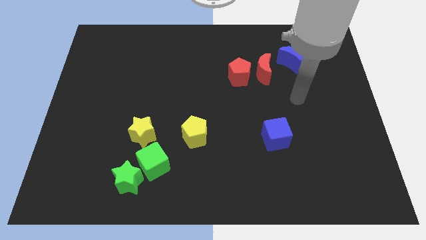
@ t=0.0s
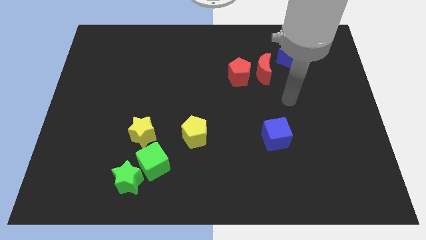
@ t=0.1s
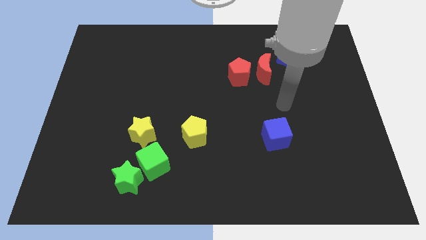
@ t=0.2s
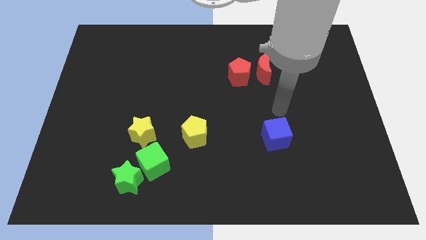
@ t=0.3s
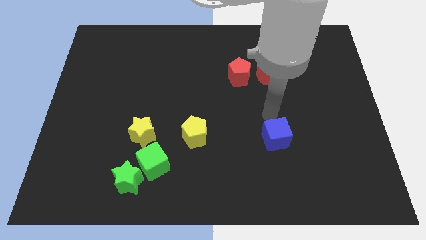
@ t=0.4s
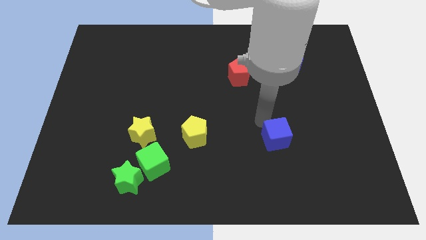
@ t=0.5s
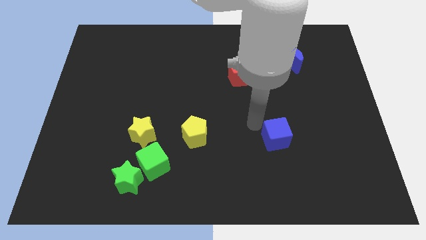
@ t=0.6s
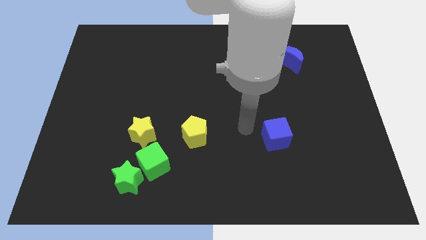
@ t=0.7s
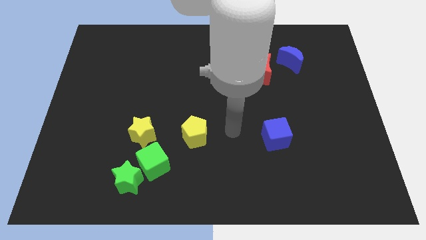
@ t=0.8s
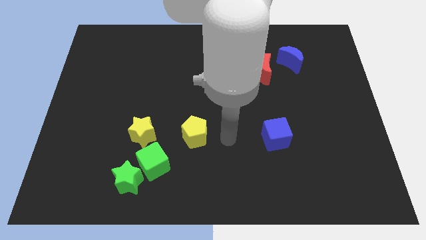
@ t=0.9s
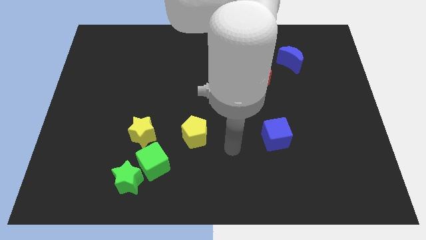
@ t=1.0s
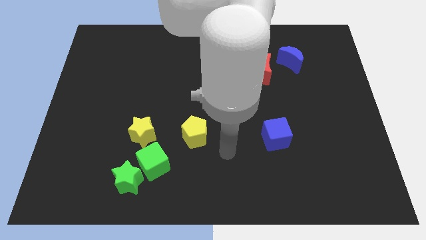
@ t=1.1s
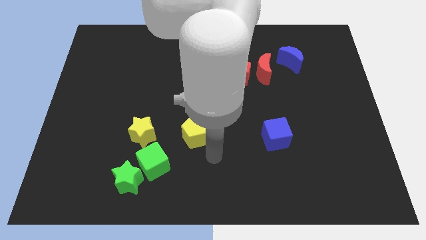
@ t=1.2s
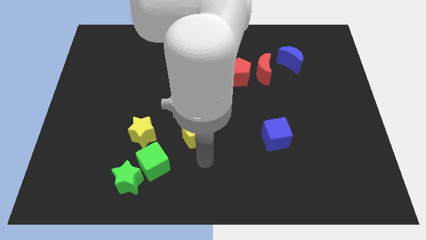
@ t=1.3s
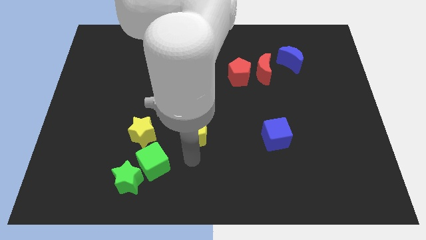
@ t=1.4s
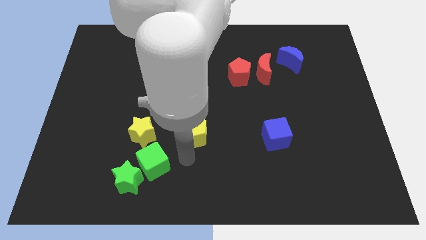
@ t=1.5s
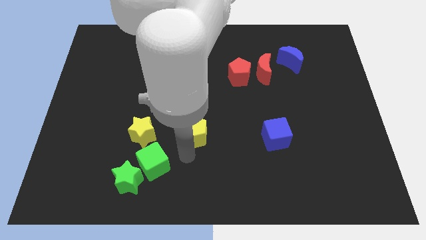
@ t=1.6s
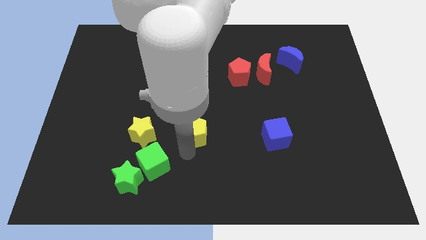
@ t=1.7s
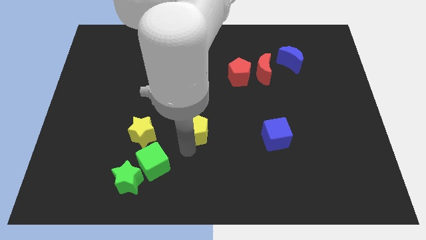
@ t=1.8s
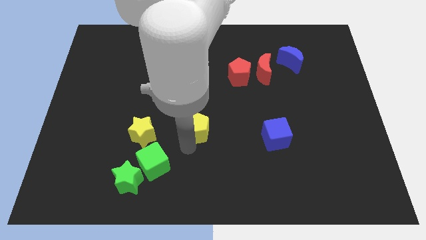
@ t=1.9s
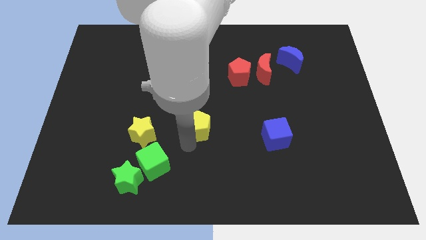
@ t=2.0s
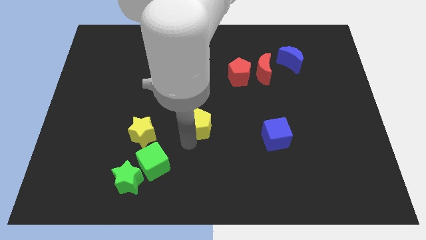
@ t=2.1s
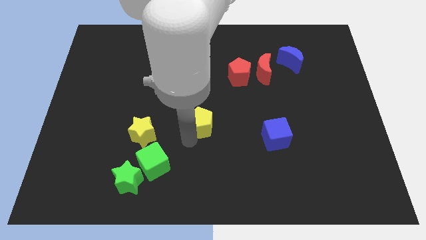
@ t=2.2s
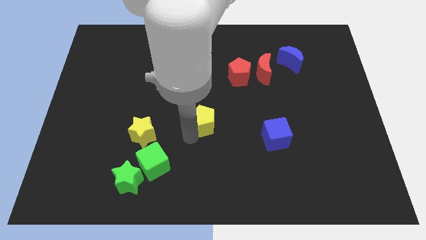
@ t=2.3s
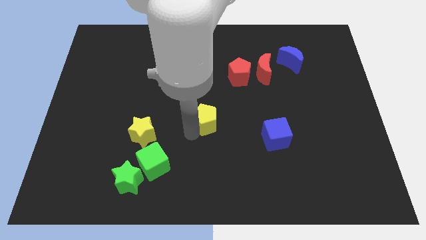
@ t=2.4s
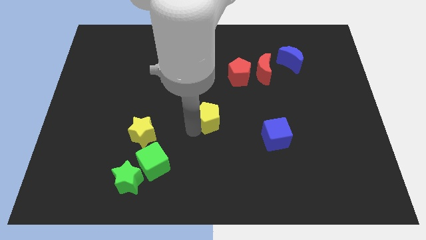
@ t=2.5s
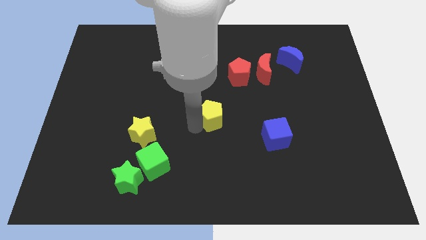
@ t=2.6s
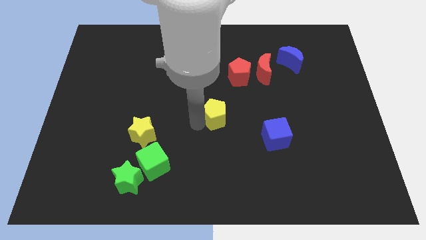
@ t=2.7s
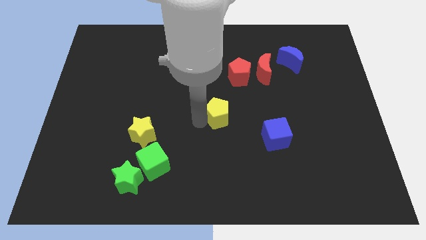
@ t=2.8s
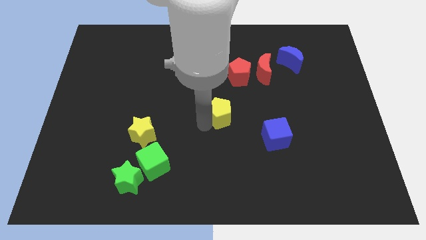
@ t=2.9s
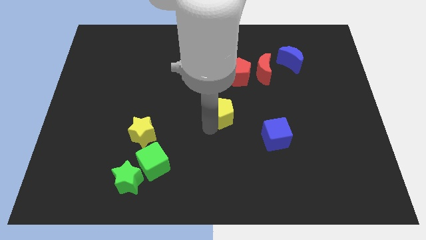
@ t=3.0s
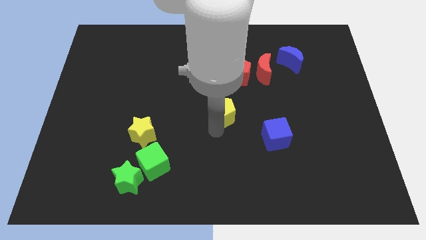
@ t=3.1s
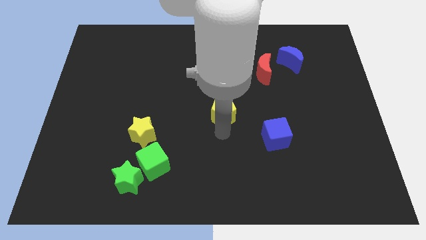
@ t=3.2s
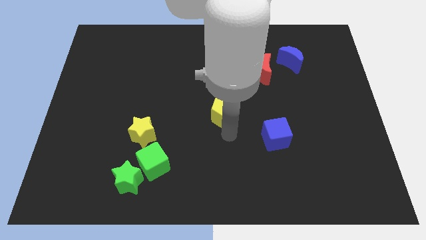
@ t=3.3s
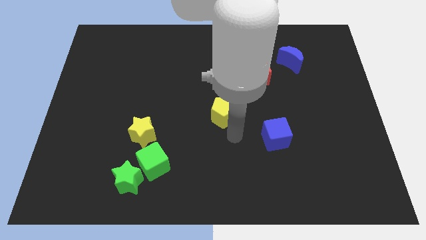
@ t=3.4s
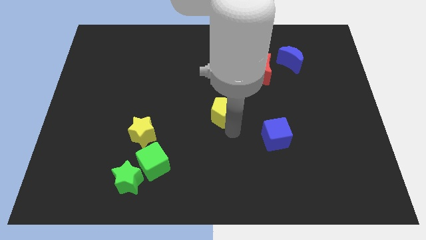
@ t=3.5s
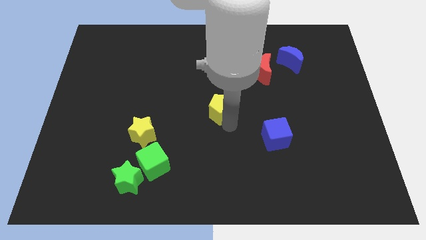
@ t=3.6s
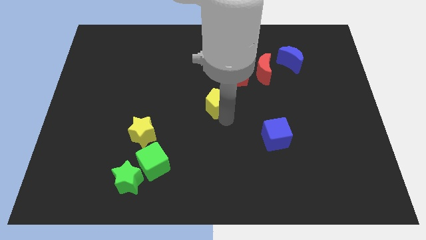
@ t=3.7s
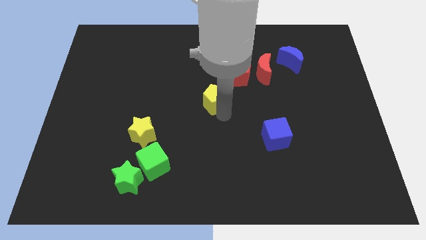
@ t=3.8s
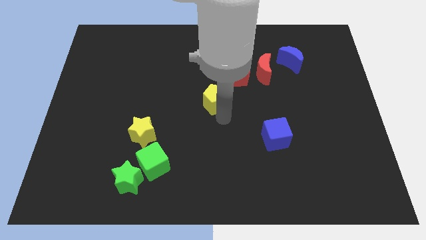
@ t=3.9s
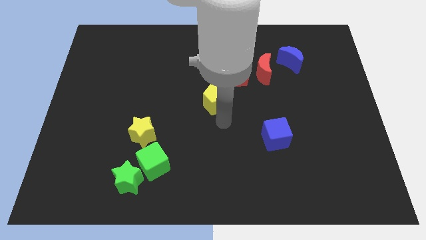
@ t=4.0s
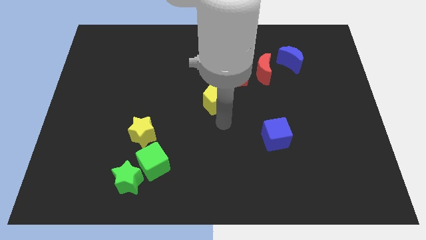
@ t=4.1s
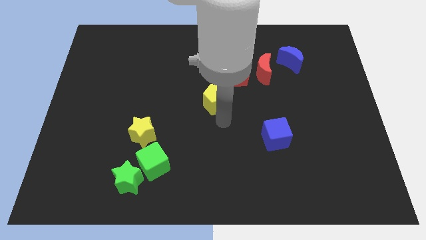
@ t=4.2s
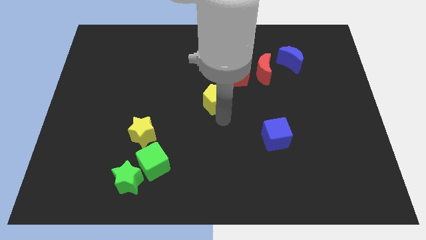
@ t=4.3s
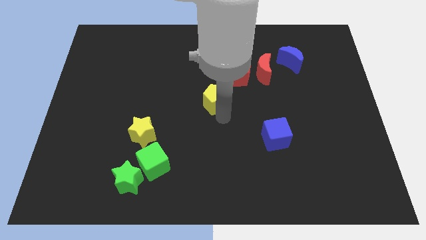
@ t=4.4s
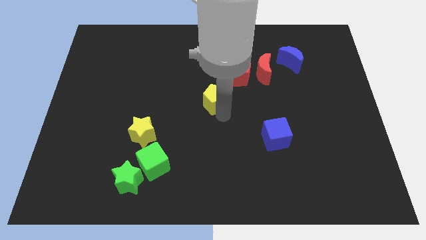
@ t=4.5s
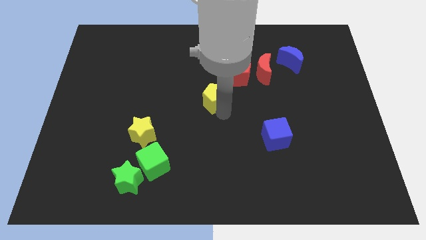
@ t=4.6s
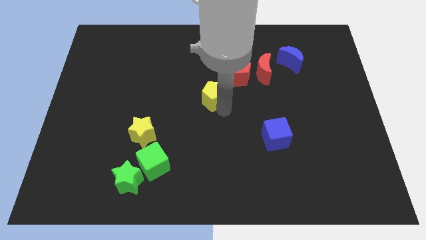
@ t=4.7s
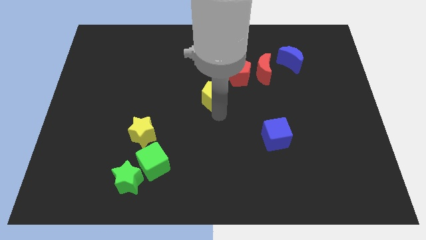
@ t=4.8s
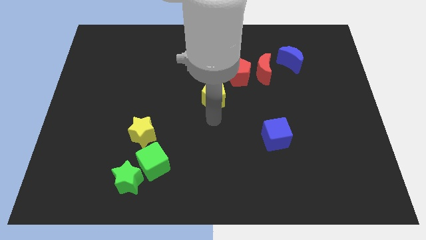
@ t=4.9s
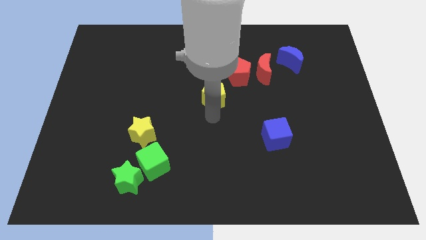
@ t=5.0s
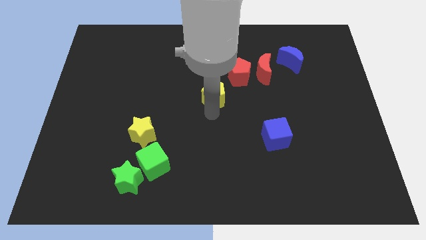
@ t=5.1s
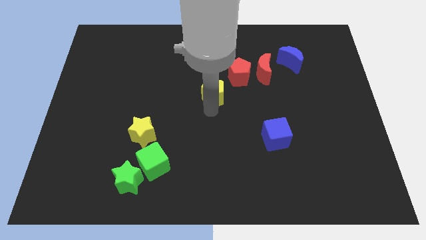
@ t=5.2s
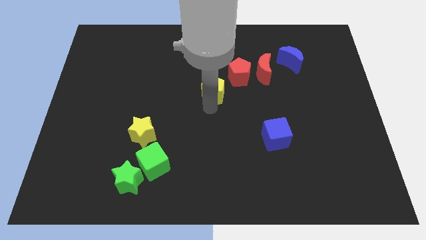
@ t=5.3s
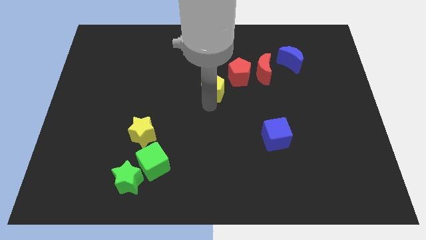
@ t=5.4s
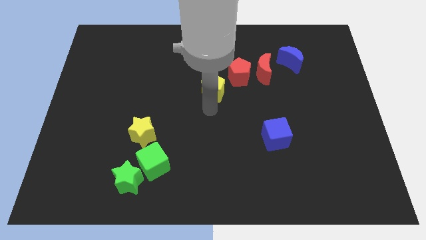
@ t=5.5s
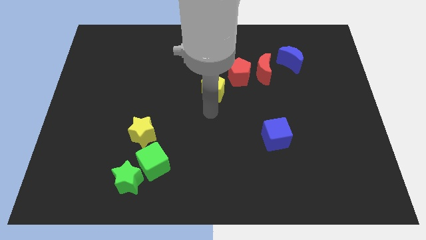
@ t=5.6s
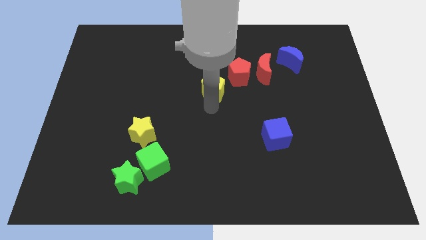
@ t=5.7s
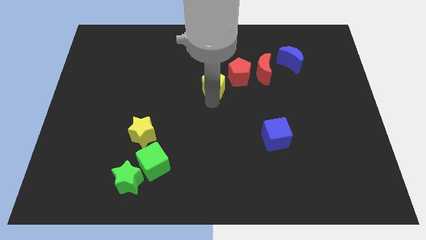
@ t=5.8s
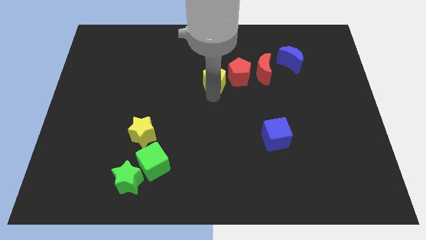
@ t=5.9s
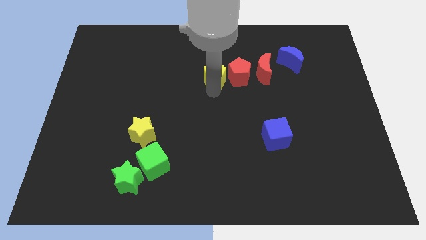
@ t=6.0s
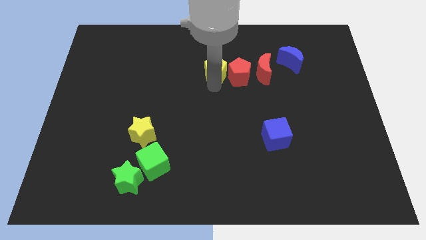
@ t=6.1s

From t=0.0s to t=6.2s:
push the yellow pentagon diagonally up and to the left of the red pentagon

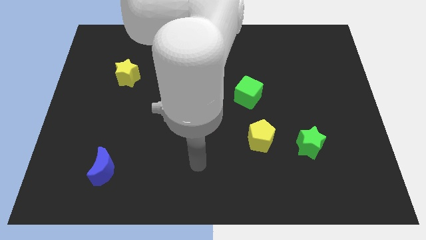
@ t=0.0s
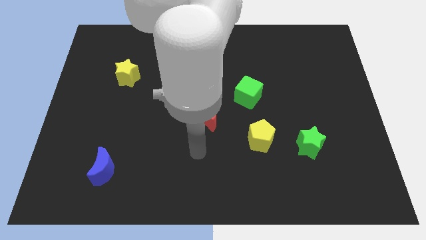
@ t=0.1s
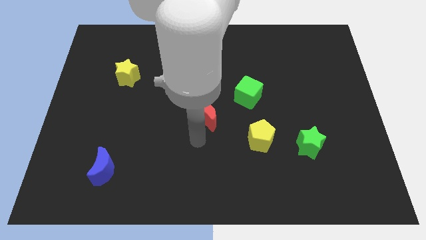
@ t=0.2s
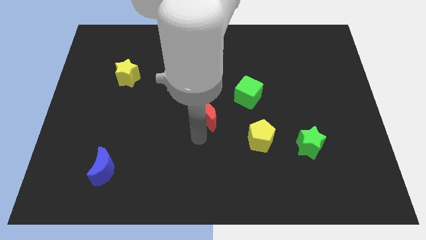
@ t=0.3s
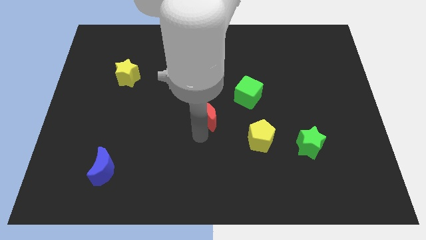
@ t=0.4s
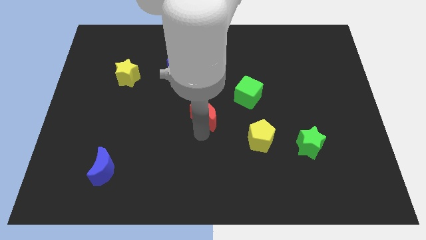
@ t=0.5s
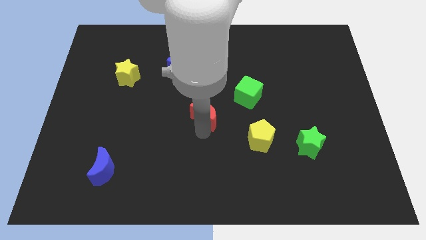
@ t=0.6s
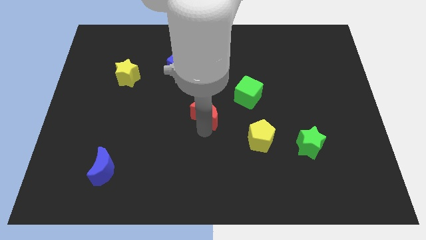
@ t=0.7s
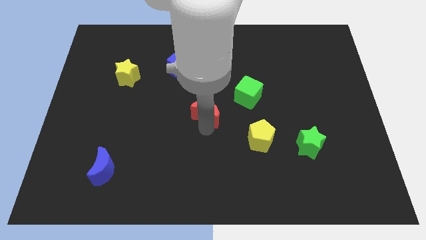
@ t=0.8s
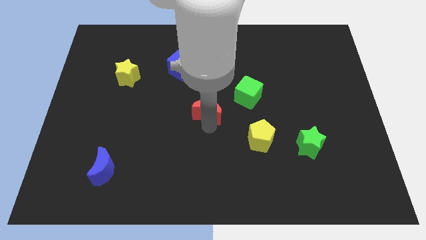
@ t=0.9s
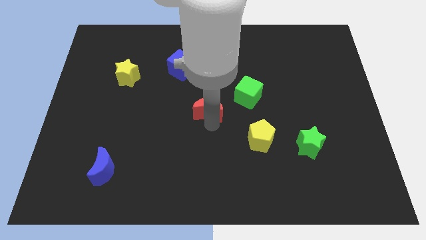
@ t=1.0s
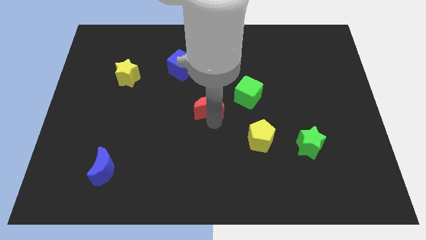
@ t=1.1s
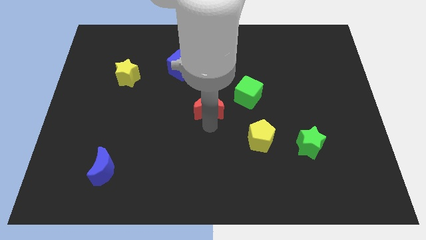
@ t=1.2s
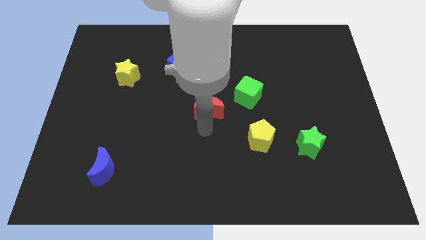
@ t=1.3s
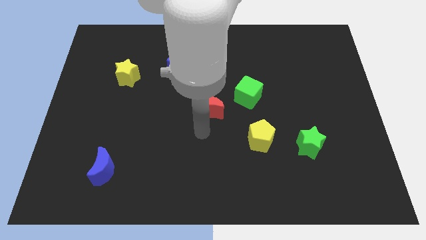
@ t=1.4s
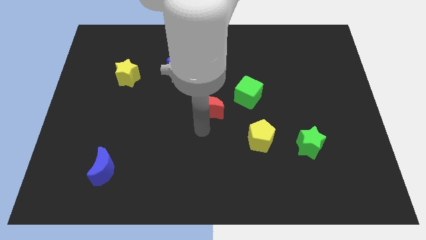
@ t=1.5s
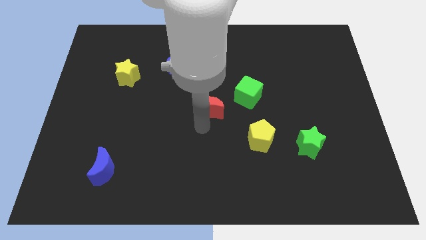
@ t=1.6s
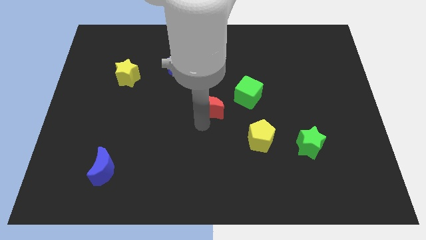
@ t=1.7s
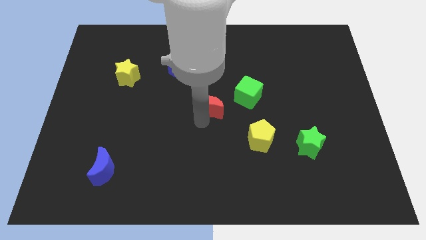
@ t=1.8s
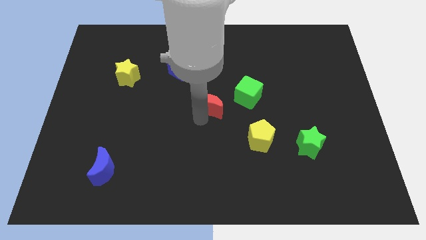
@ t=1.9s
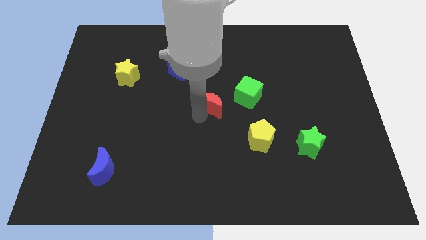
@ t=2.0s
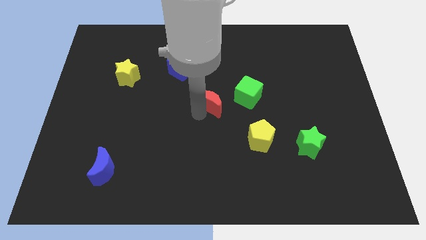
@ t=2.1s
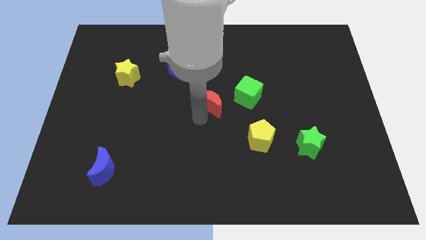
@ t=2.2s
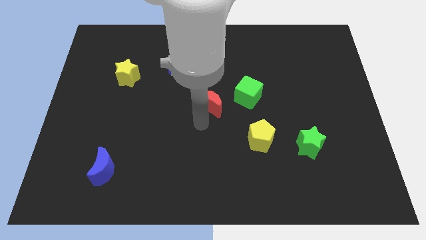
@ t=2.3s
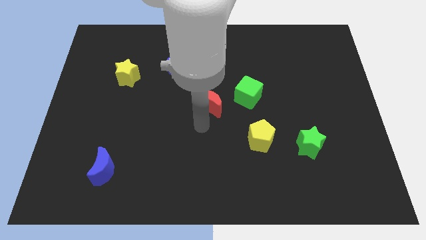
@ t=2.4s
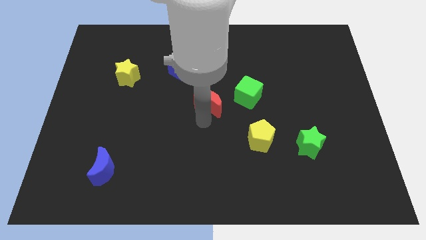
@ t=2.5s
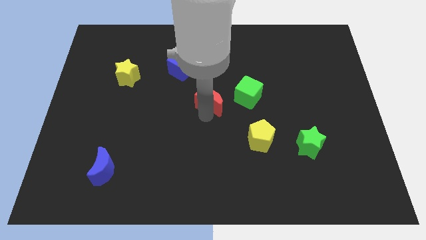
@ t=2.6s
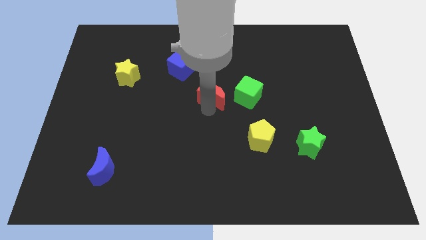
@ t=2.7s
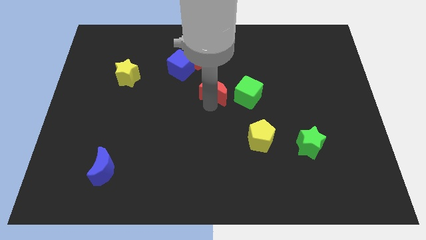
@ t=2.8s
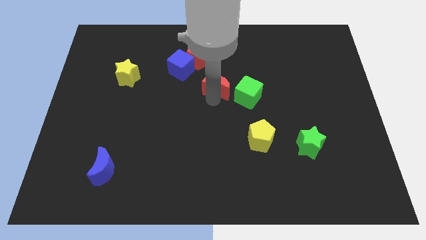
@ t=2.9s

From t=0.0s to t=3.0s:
push the red moon to the bottom right of the red pentagon
